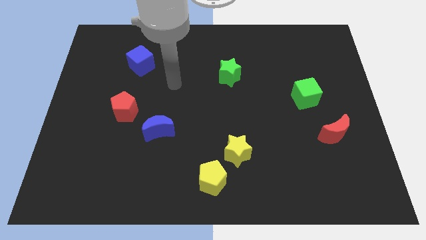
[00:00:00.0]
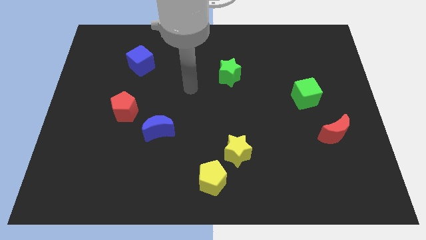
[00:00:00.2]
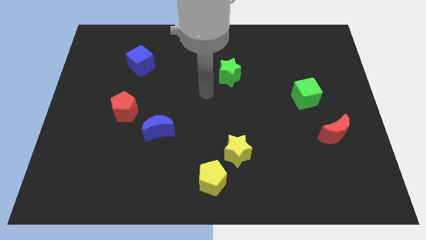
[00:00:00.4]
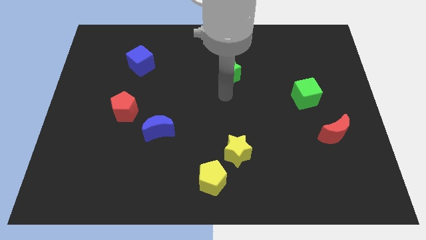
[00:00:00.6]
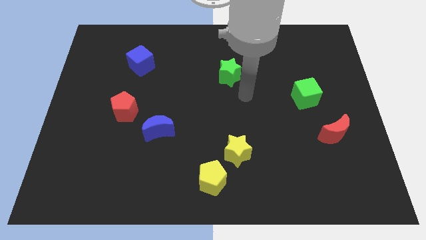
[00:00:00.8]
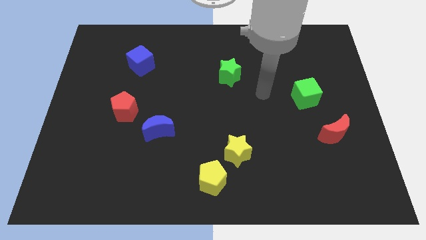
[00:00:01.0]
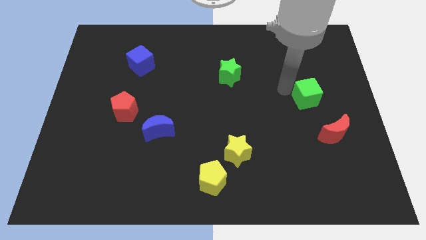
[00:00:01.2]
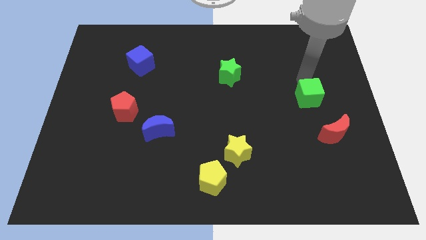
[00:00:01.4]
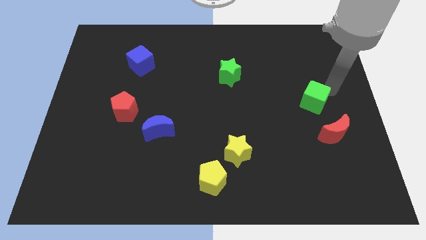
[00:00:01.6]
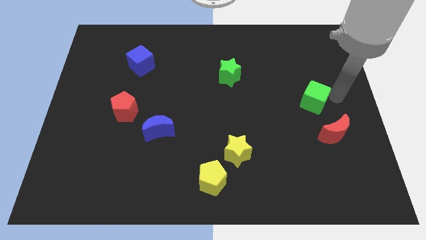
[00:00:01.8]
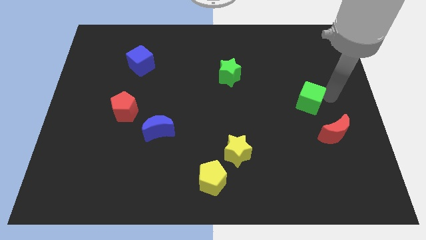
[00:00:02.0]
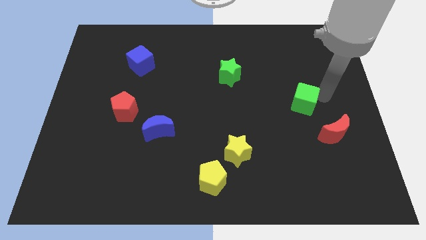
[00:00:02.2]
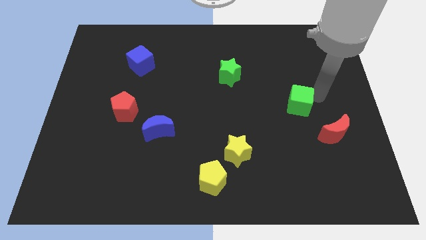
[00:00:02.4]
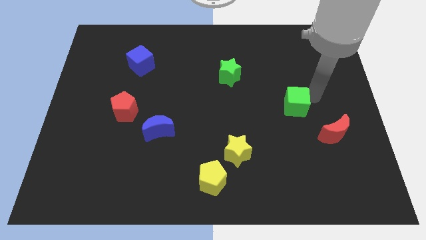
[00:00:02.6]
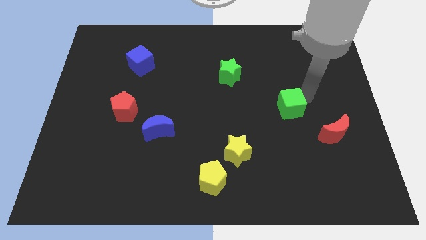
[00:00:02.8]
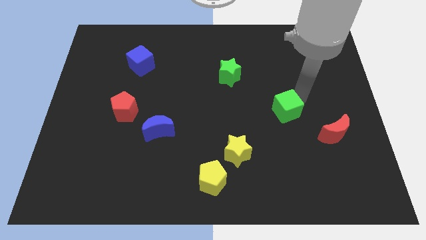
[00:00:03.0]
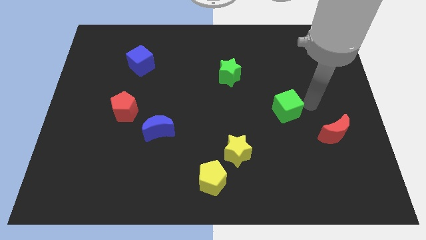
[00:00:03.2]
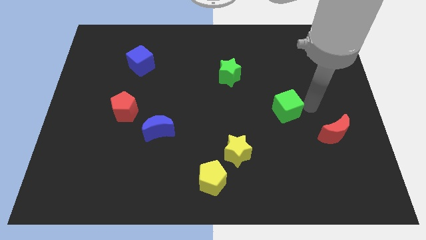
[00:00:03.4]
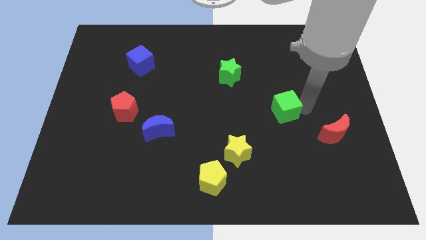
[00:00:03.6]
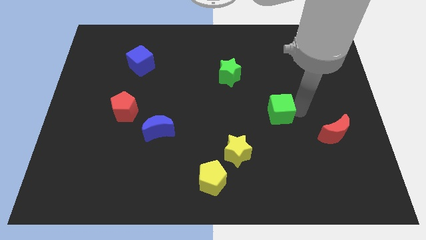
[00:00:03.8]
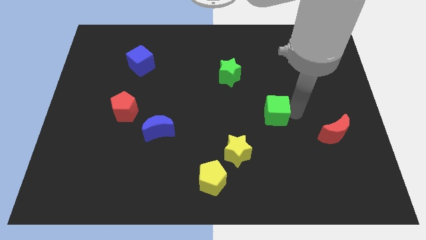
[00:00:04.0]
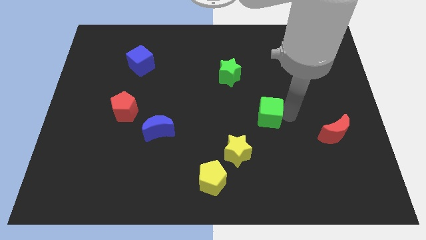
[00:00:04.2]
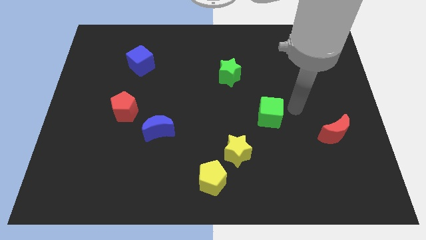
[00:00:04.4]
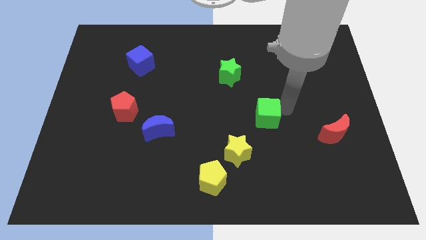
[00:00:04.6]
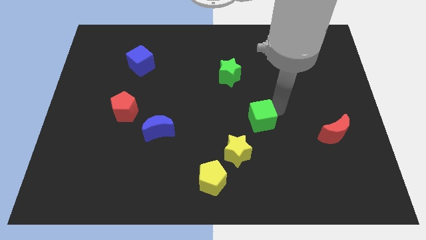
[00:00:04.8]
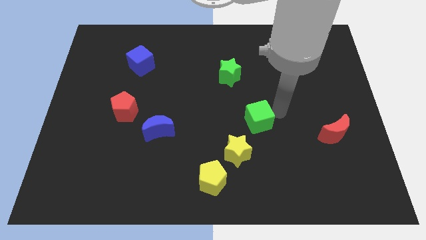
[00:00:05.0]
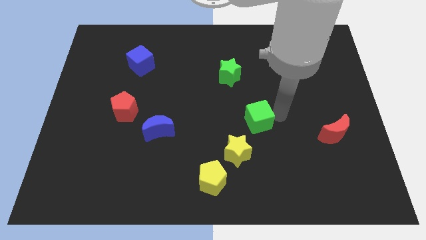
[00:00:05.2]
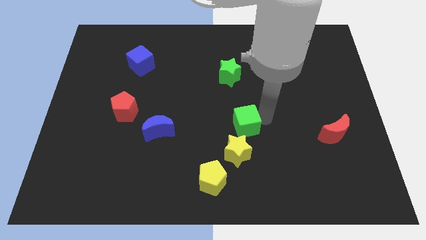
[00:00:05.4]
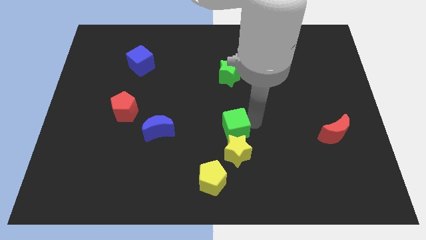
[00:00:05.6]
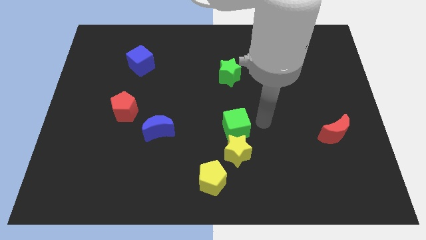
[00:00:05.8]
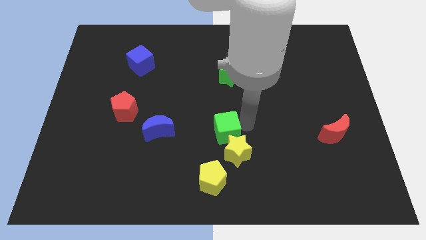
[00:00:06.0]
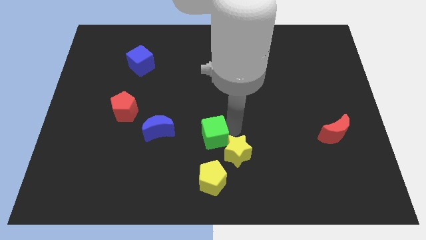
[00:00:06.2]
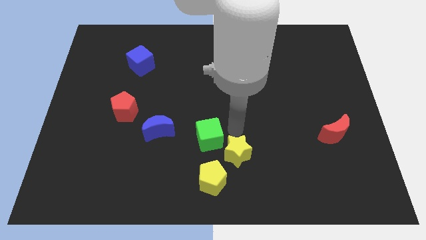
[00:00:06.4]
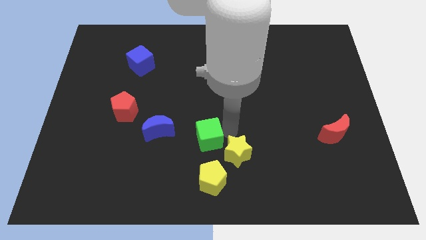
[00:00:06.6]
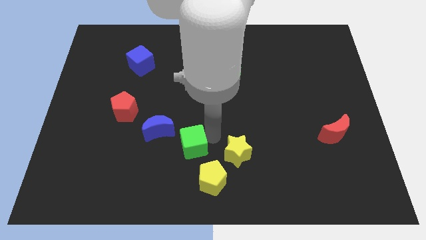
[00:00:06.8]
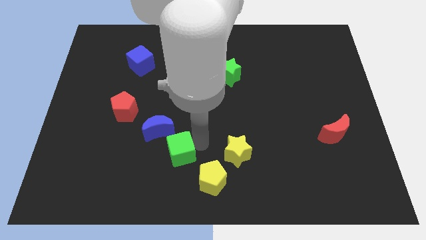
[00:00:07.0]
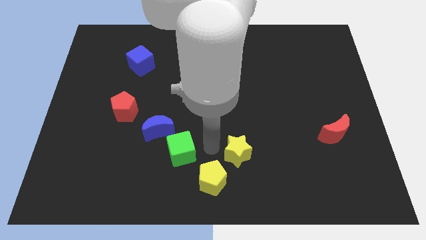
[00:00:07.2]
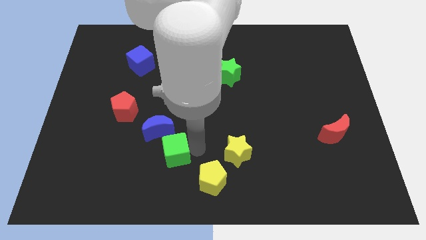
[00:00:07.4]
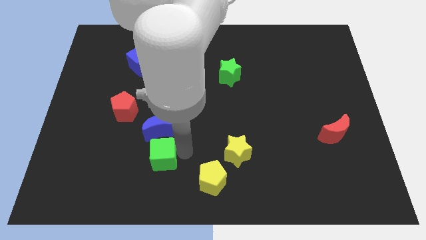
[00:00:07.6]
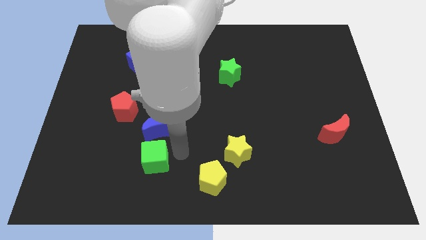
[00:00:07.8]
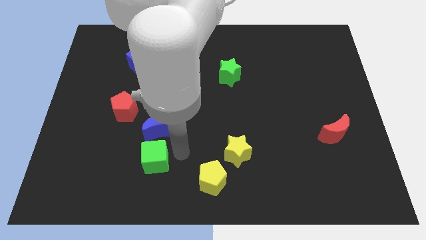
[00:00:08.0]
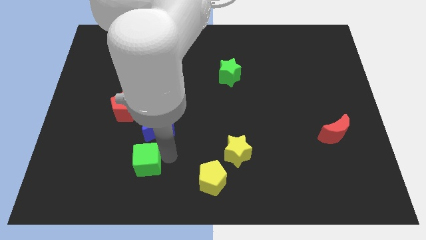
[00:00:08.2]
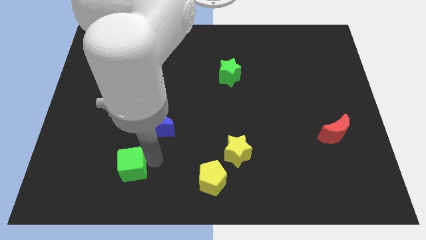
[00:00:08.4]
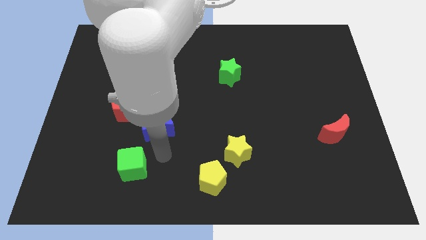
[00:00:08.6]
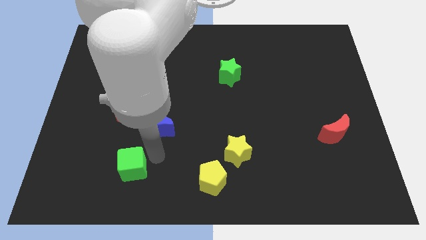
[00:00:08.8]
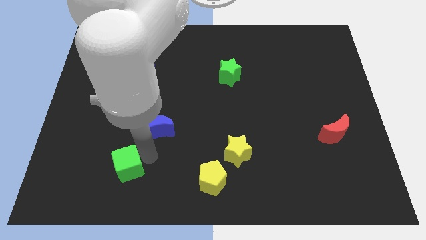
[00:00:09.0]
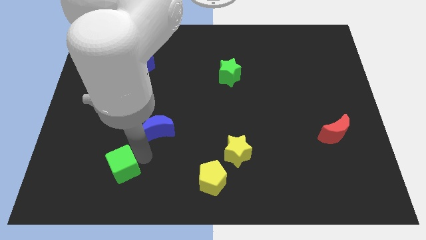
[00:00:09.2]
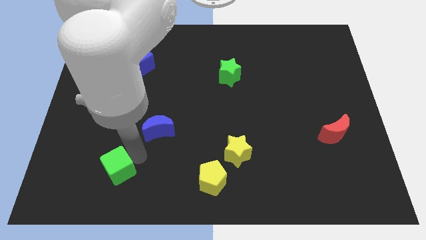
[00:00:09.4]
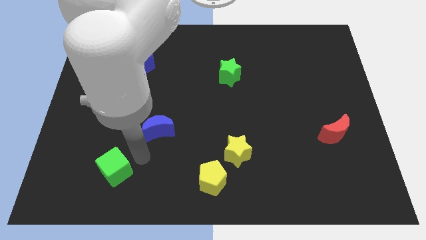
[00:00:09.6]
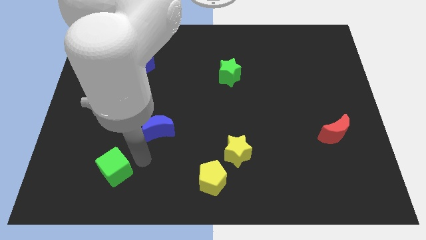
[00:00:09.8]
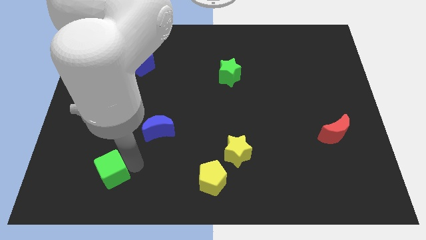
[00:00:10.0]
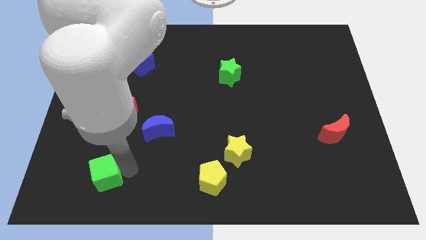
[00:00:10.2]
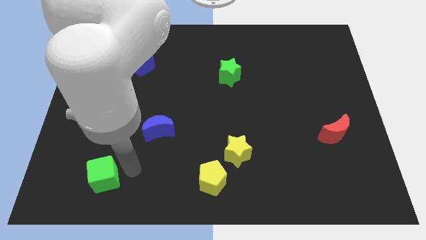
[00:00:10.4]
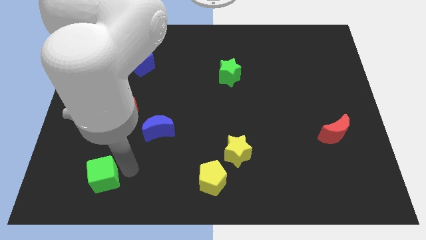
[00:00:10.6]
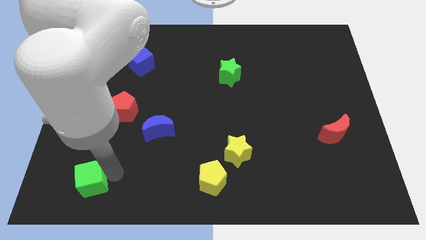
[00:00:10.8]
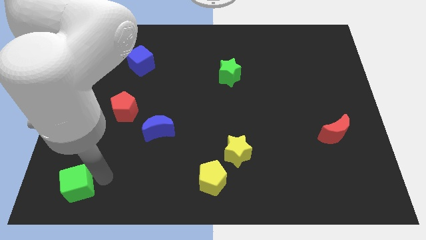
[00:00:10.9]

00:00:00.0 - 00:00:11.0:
push the green cube to the bottom left

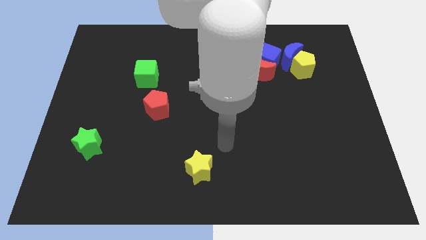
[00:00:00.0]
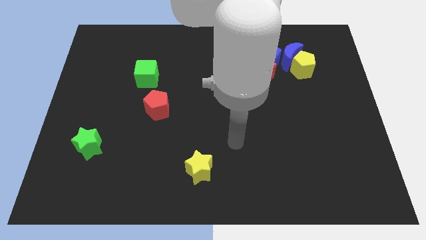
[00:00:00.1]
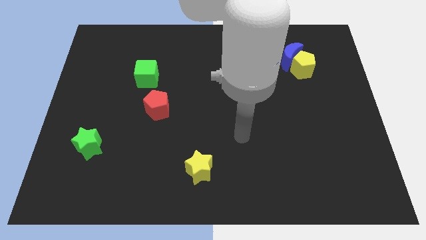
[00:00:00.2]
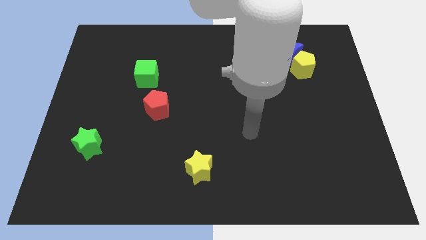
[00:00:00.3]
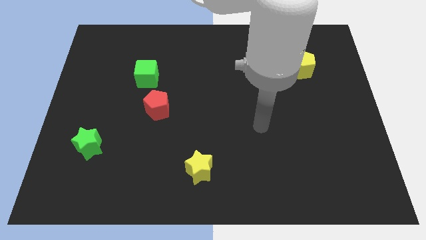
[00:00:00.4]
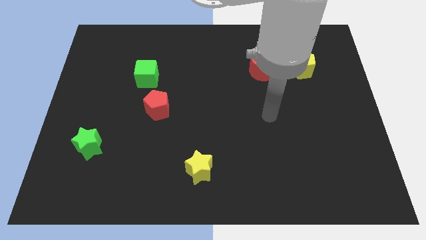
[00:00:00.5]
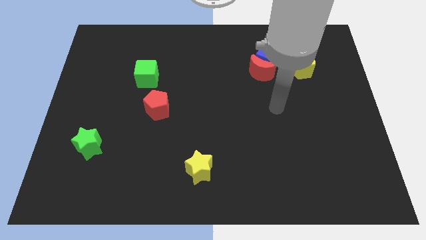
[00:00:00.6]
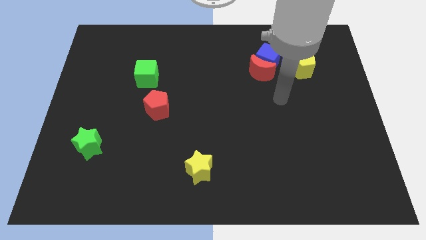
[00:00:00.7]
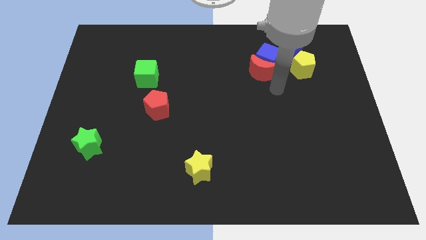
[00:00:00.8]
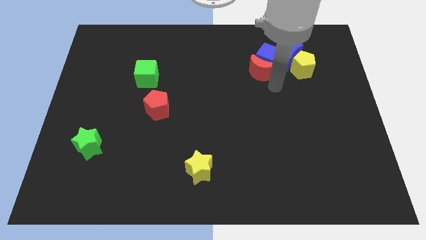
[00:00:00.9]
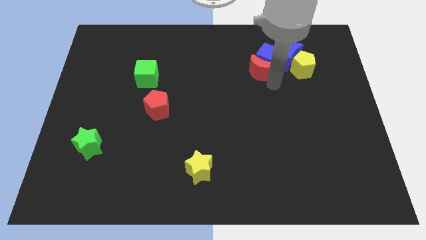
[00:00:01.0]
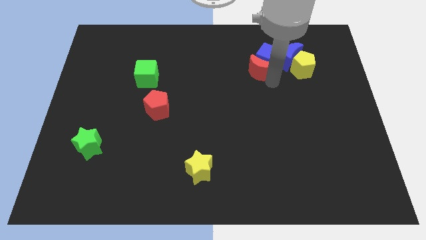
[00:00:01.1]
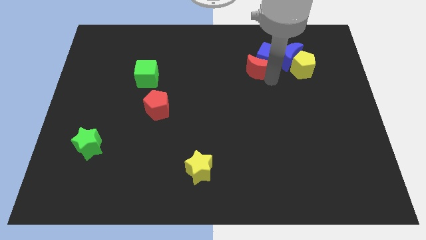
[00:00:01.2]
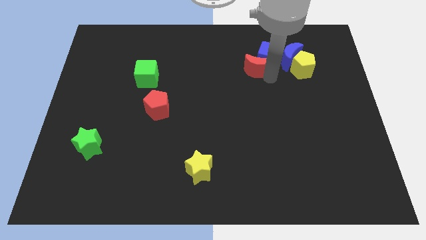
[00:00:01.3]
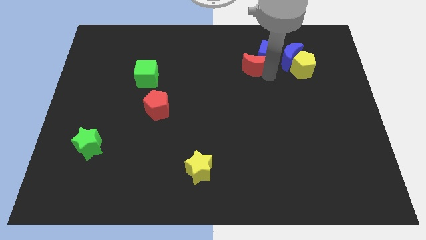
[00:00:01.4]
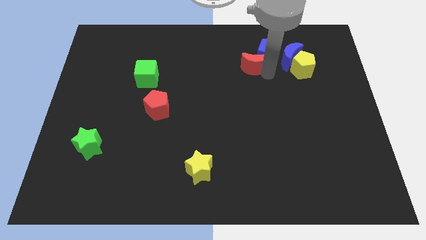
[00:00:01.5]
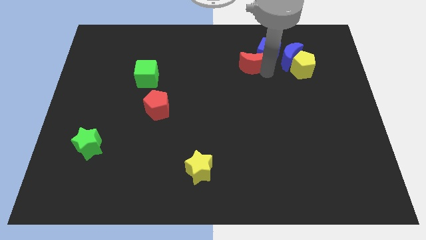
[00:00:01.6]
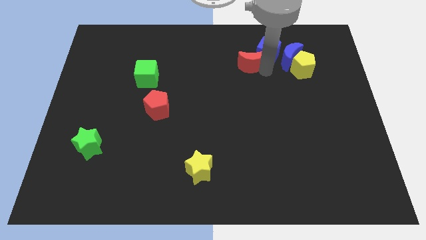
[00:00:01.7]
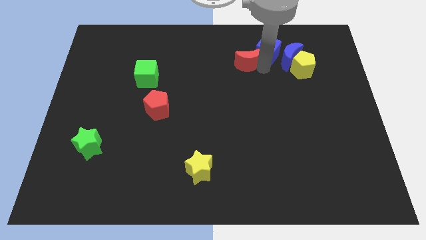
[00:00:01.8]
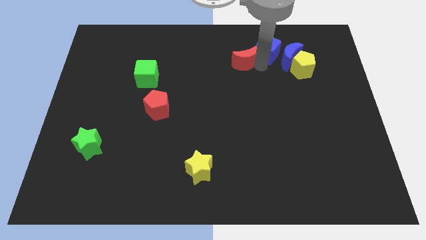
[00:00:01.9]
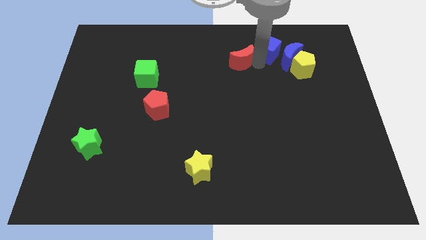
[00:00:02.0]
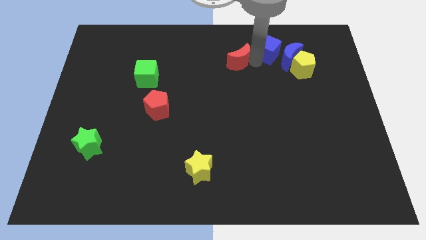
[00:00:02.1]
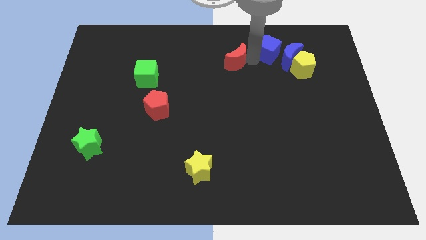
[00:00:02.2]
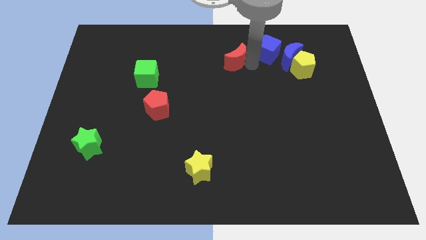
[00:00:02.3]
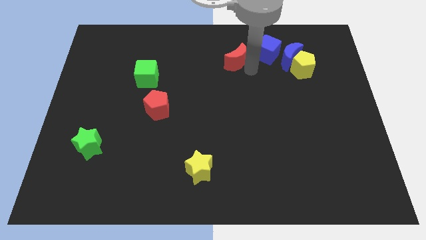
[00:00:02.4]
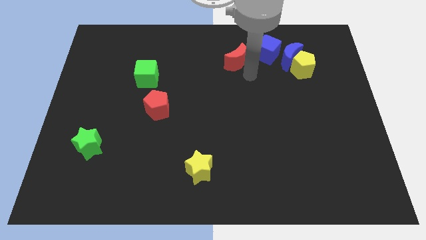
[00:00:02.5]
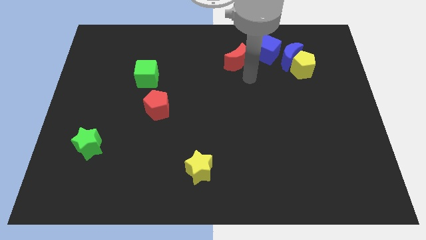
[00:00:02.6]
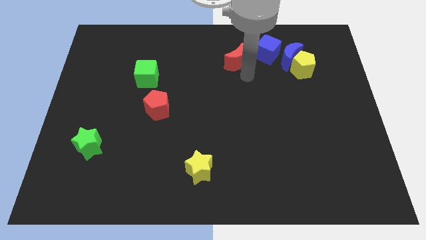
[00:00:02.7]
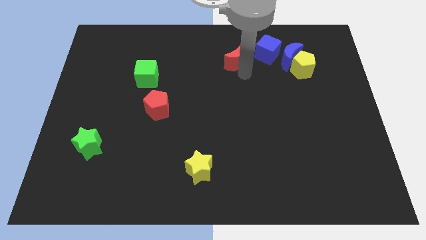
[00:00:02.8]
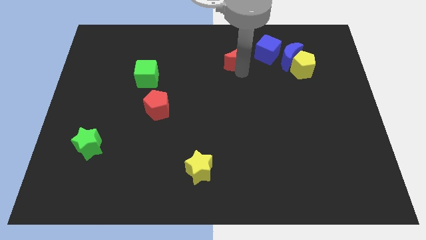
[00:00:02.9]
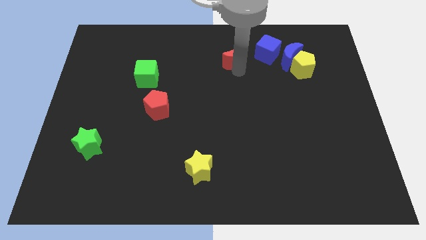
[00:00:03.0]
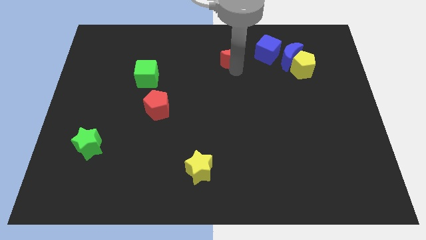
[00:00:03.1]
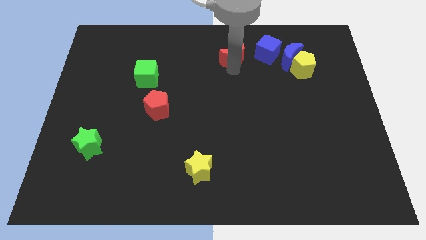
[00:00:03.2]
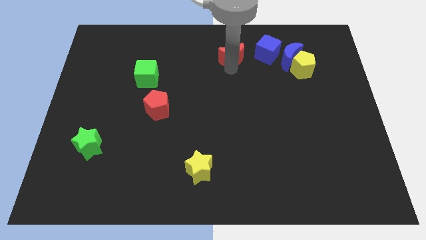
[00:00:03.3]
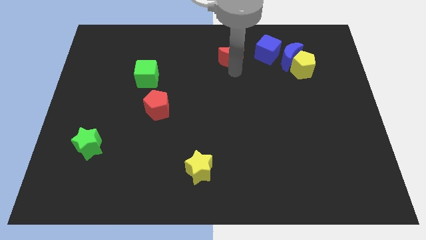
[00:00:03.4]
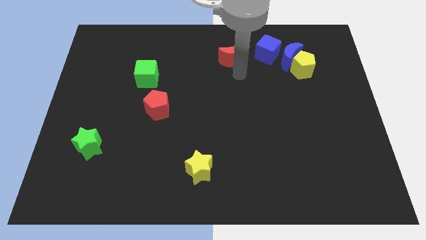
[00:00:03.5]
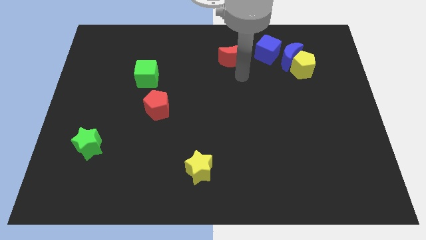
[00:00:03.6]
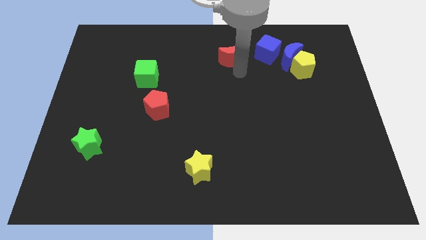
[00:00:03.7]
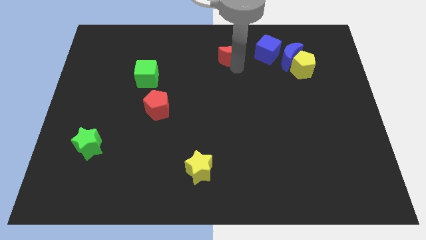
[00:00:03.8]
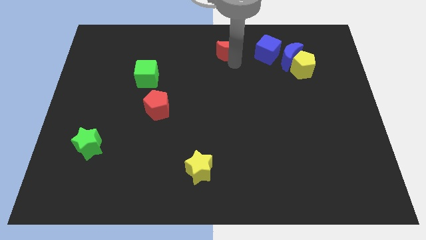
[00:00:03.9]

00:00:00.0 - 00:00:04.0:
move the red moon to the towards your base
